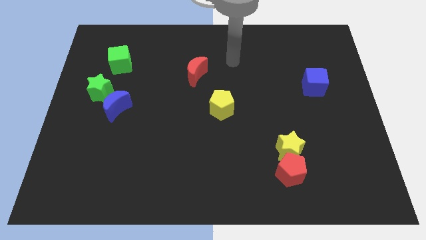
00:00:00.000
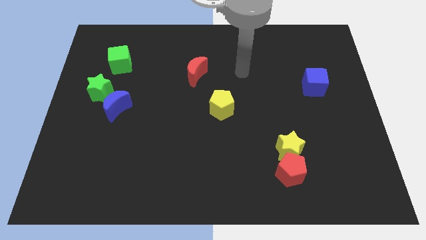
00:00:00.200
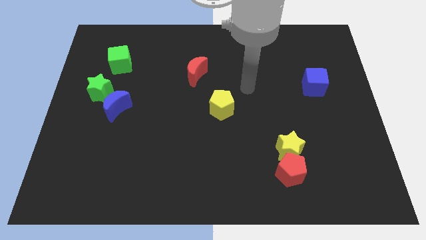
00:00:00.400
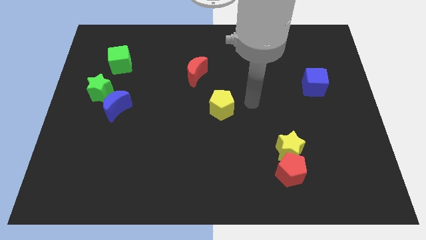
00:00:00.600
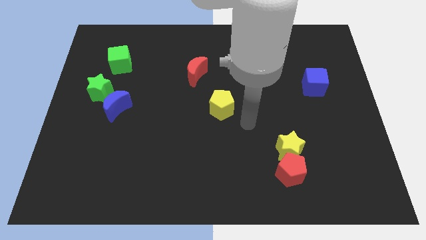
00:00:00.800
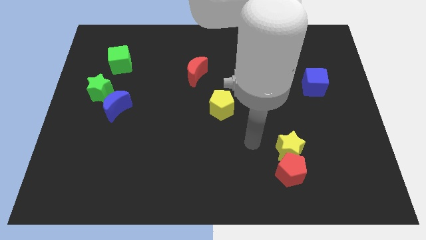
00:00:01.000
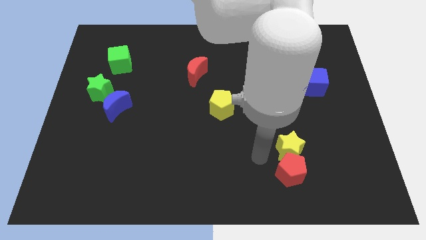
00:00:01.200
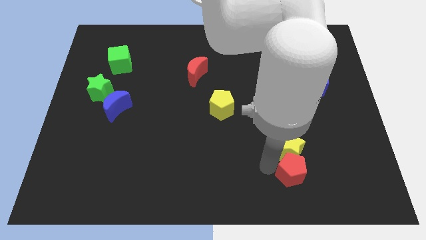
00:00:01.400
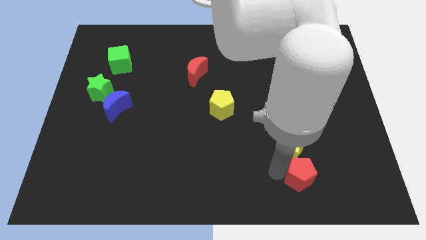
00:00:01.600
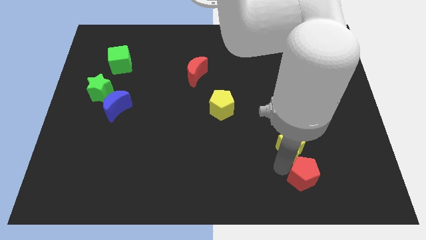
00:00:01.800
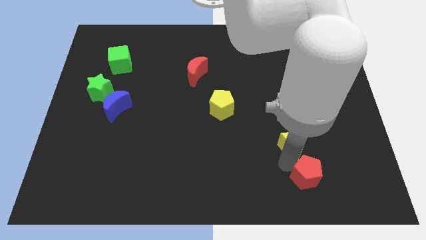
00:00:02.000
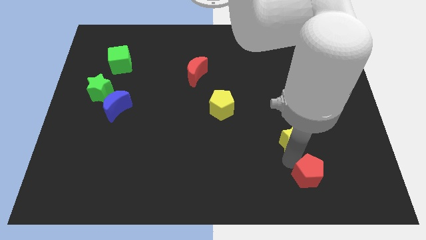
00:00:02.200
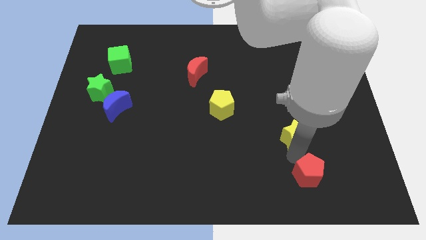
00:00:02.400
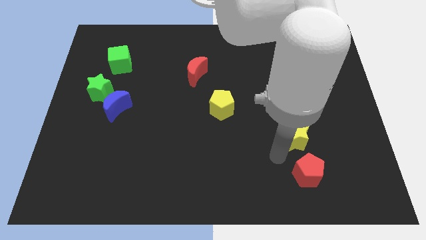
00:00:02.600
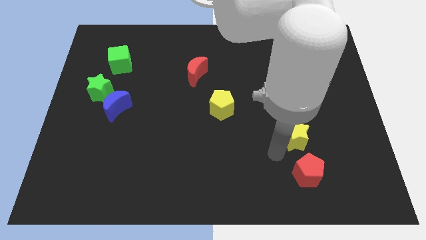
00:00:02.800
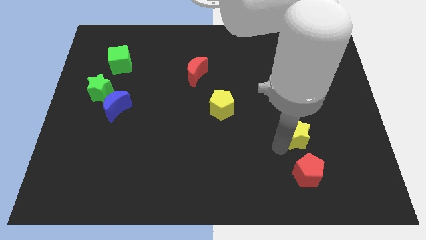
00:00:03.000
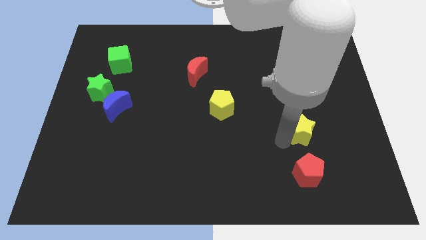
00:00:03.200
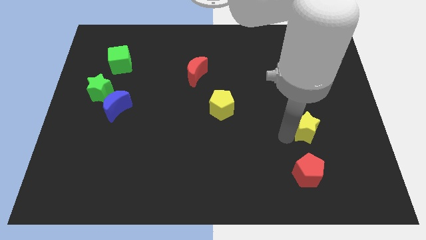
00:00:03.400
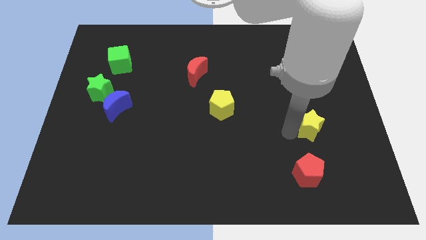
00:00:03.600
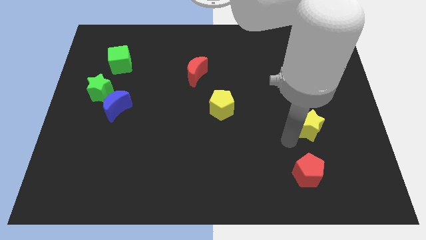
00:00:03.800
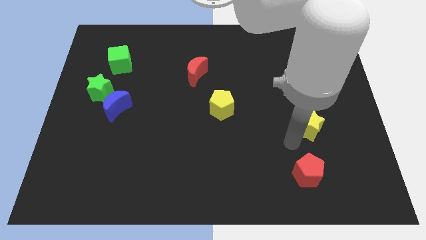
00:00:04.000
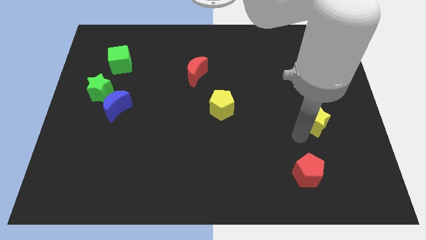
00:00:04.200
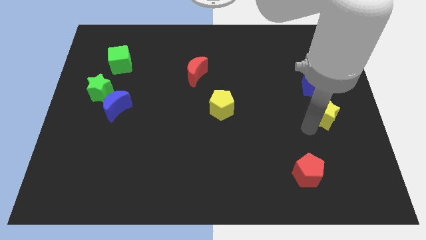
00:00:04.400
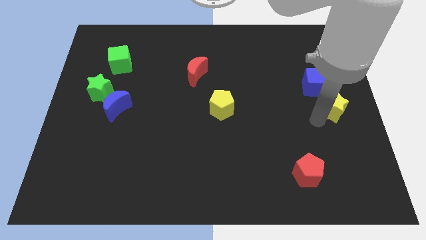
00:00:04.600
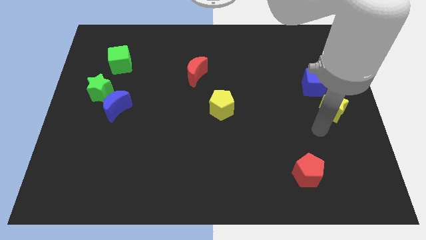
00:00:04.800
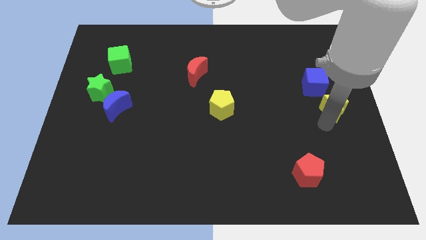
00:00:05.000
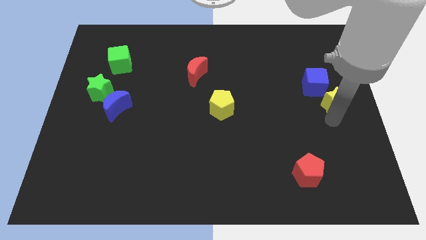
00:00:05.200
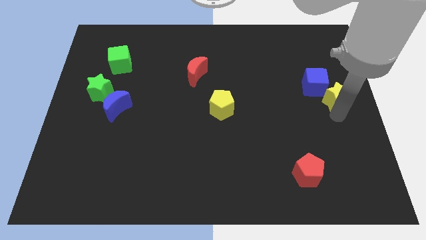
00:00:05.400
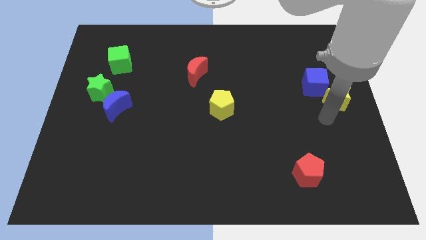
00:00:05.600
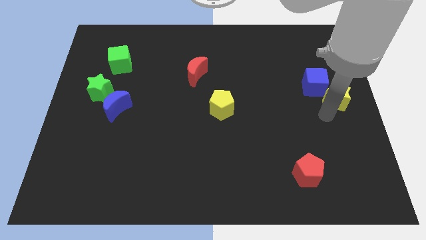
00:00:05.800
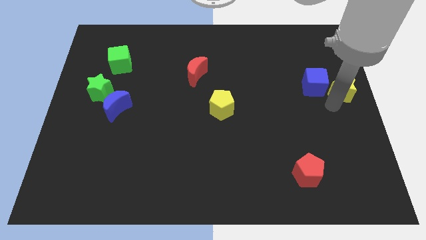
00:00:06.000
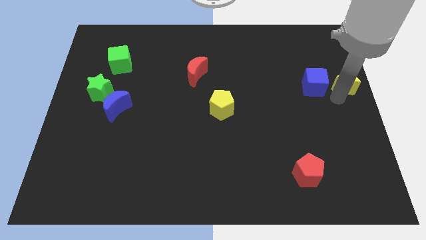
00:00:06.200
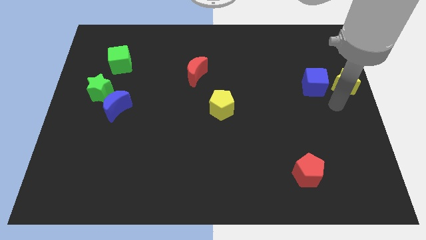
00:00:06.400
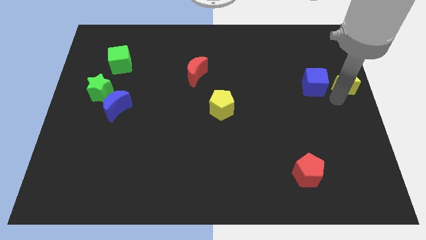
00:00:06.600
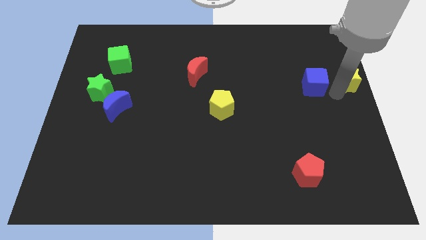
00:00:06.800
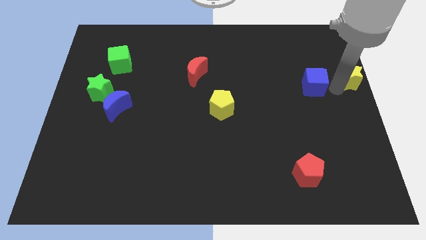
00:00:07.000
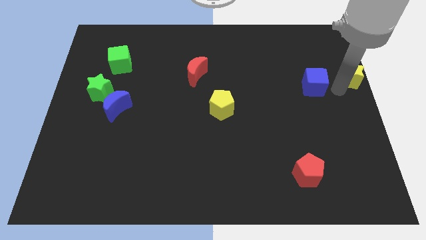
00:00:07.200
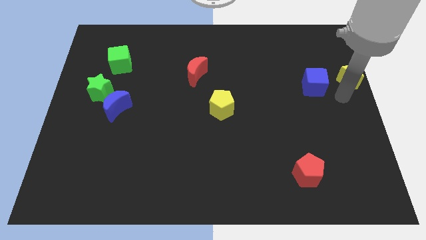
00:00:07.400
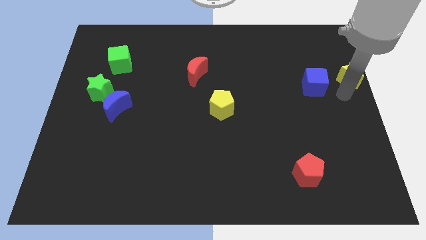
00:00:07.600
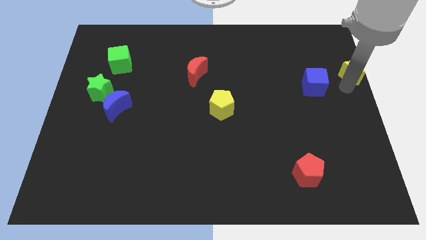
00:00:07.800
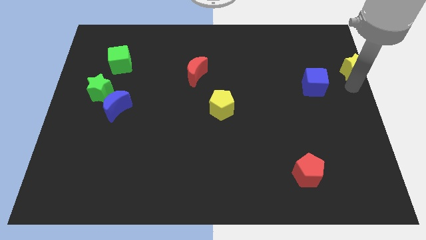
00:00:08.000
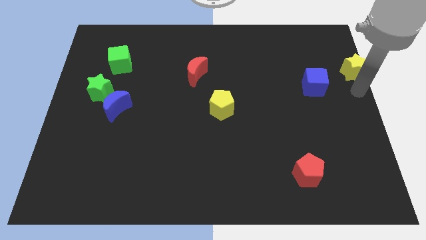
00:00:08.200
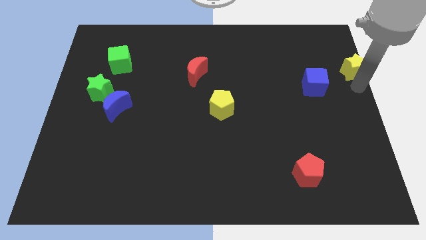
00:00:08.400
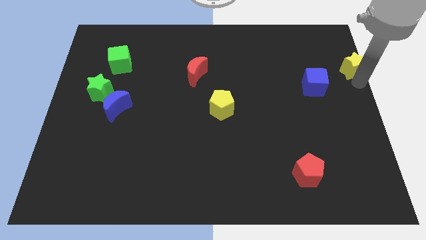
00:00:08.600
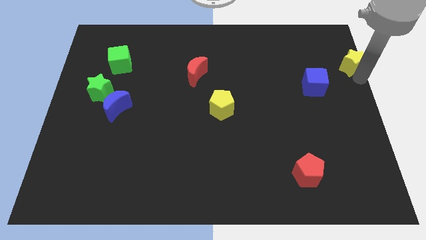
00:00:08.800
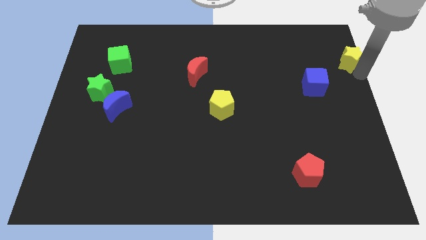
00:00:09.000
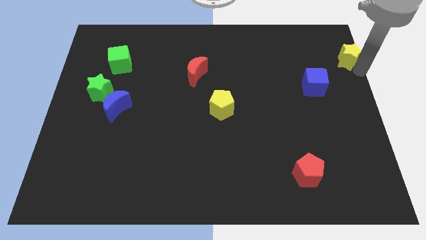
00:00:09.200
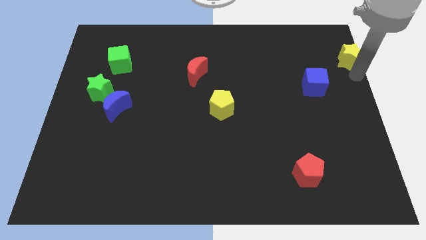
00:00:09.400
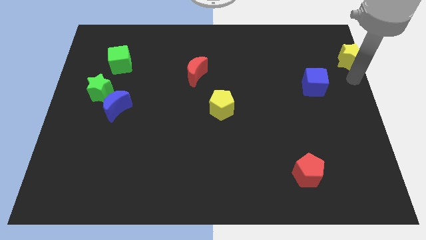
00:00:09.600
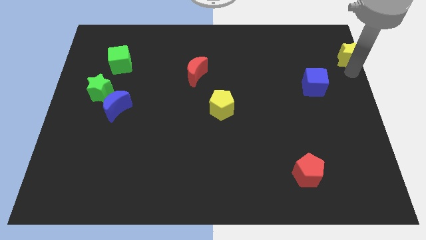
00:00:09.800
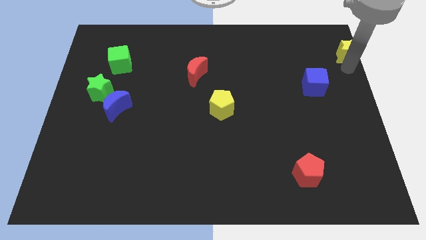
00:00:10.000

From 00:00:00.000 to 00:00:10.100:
push the yellow star to the top right

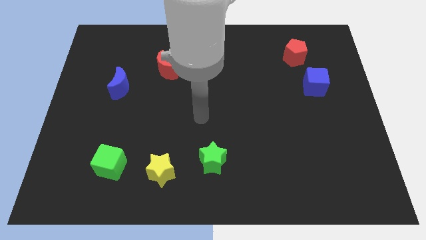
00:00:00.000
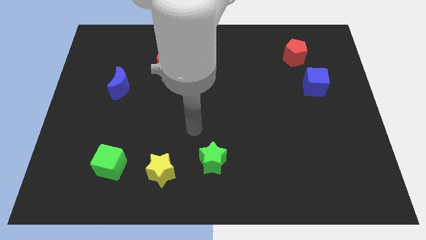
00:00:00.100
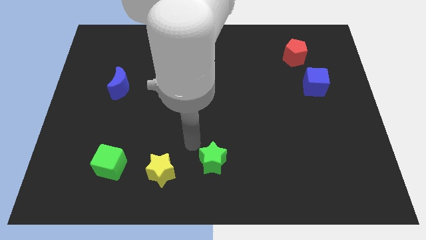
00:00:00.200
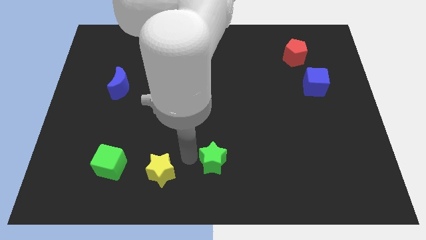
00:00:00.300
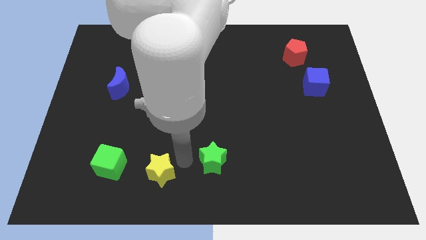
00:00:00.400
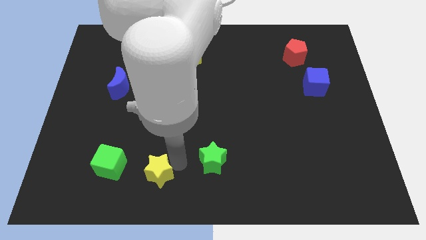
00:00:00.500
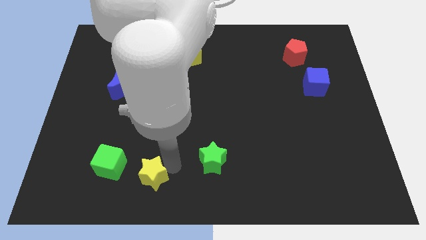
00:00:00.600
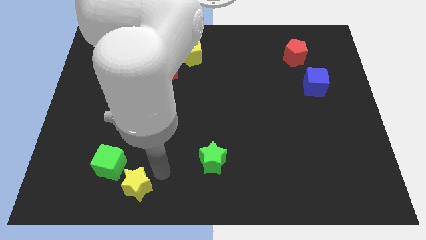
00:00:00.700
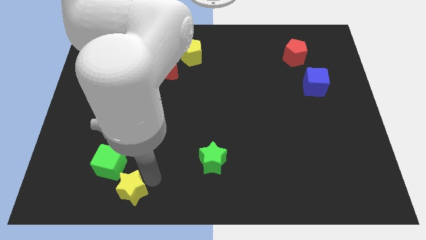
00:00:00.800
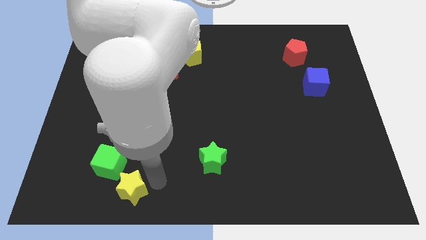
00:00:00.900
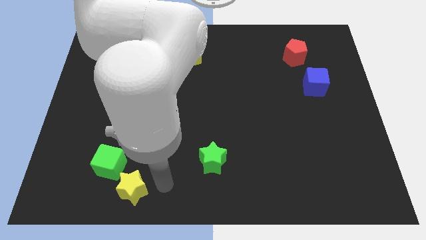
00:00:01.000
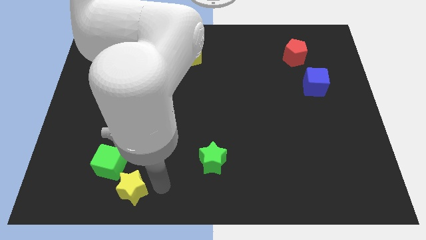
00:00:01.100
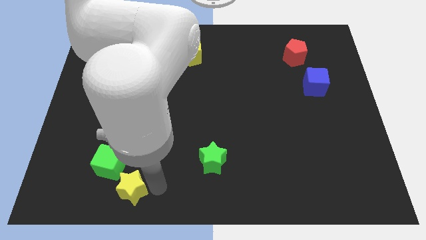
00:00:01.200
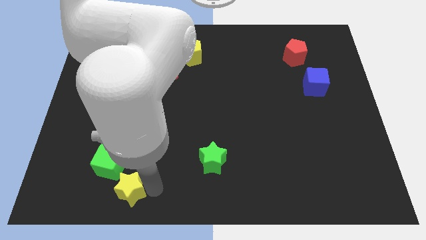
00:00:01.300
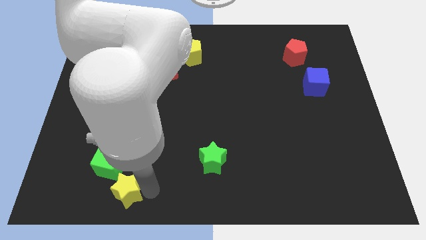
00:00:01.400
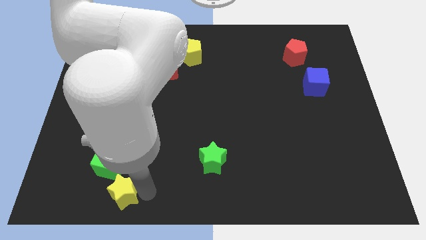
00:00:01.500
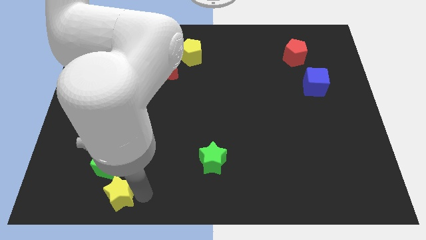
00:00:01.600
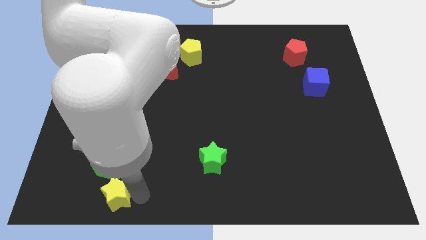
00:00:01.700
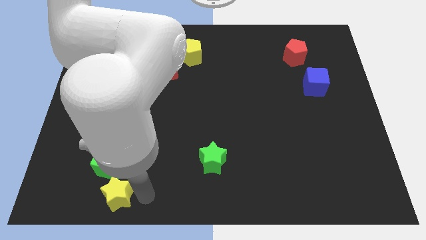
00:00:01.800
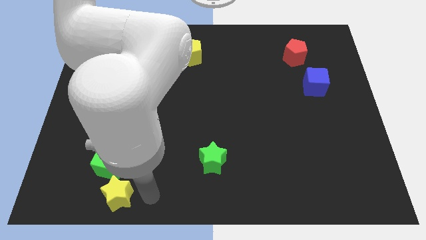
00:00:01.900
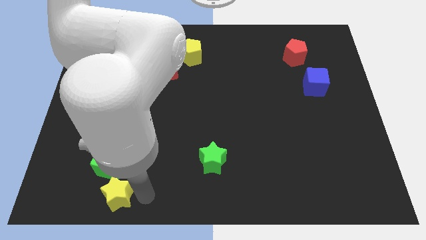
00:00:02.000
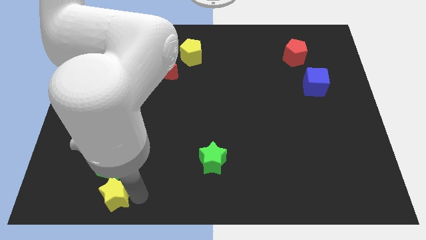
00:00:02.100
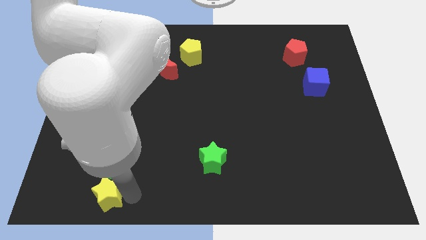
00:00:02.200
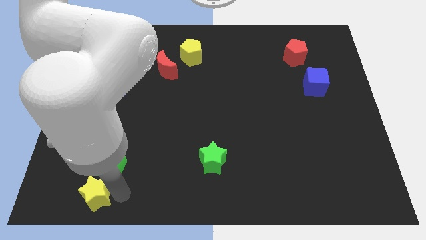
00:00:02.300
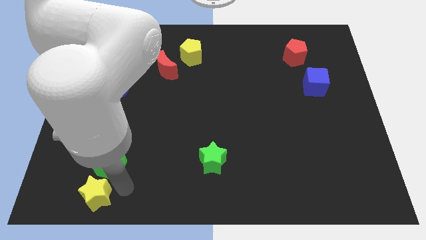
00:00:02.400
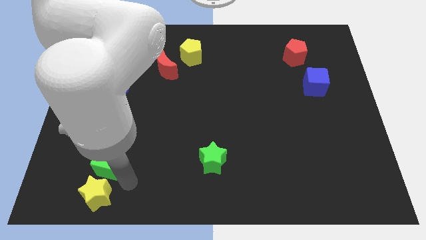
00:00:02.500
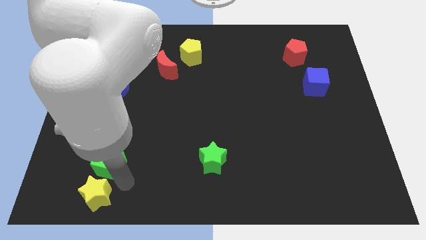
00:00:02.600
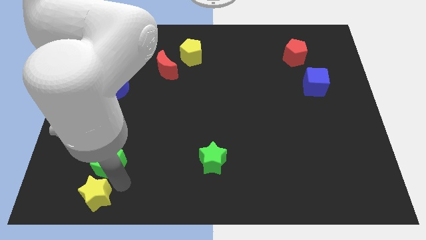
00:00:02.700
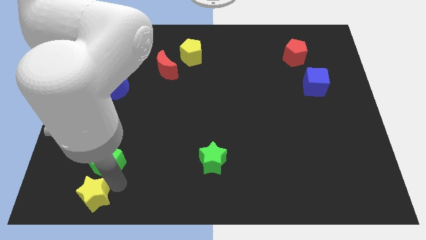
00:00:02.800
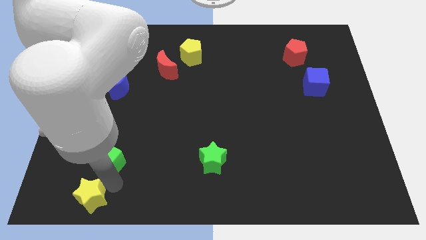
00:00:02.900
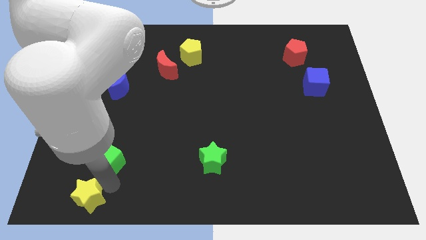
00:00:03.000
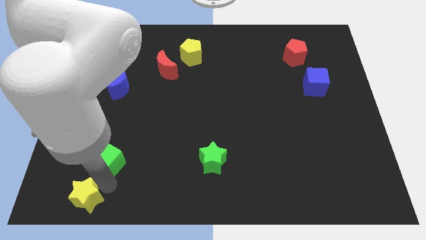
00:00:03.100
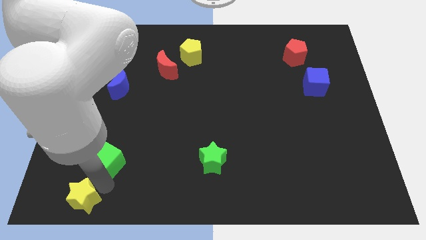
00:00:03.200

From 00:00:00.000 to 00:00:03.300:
slide the yellow star to the lower left corner
